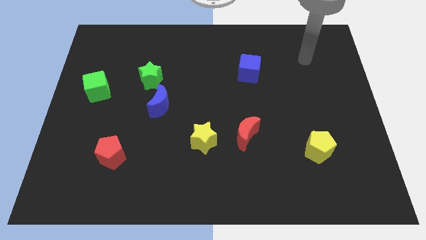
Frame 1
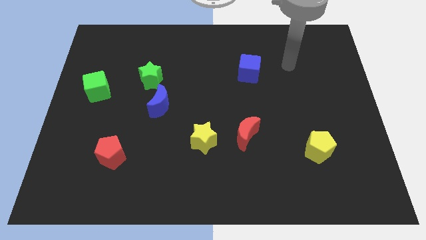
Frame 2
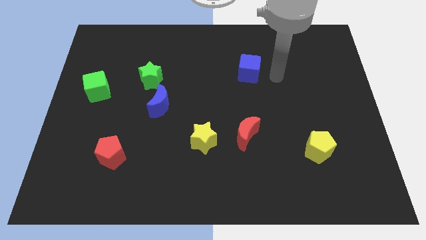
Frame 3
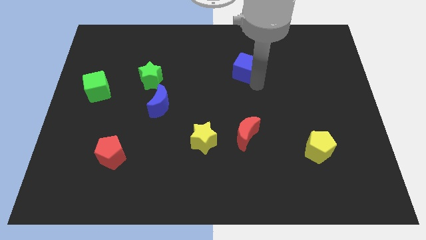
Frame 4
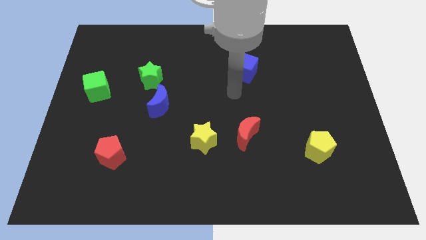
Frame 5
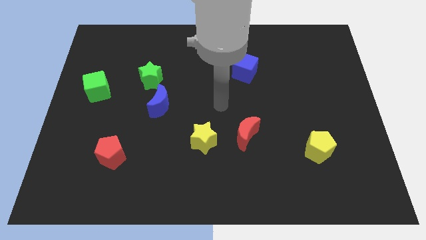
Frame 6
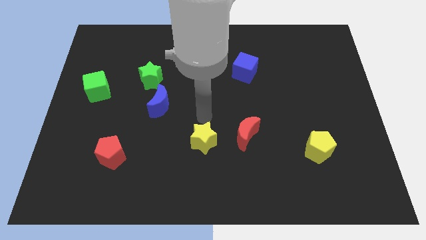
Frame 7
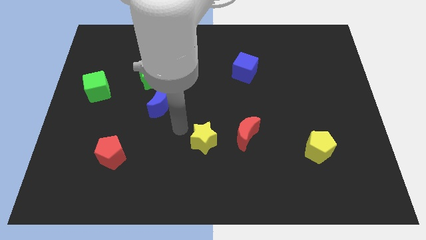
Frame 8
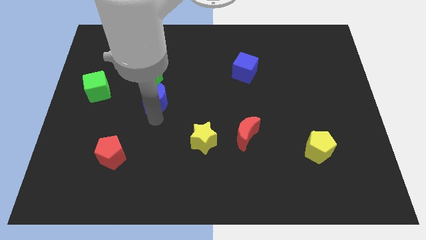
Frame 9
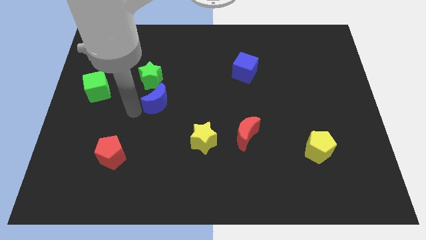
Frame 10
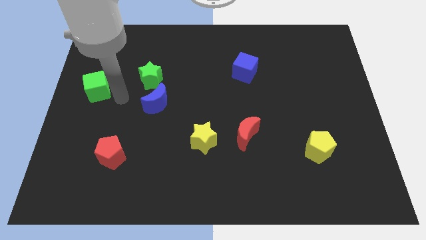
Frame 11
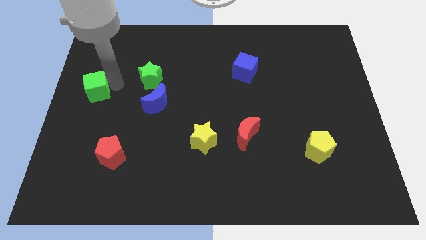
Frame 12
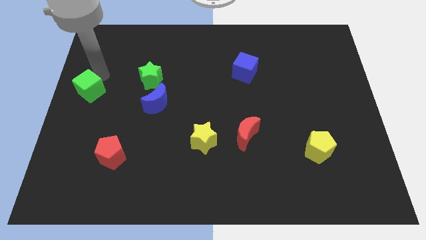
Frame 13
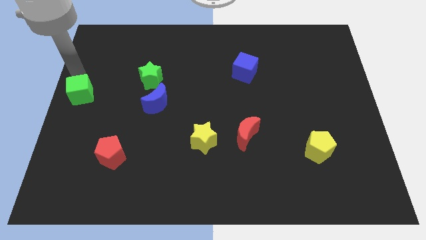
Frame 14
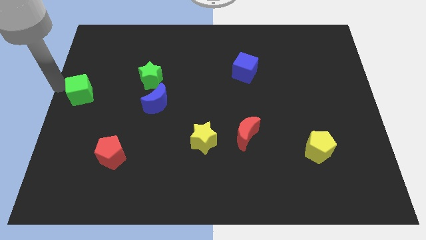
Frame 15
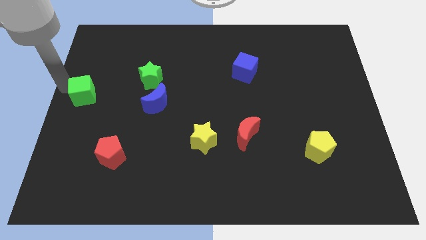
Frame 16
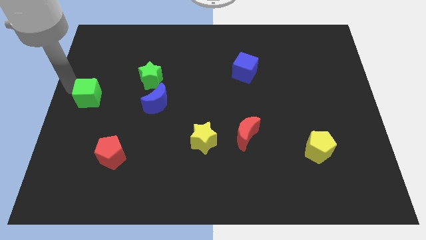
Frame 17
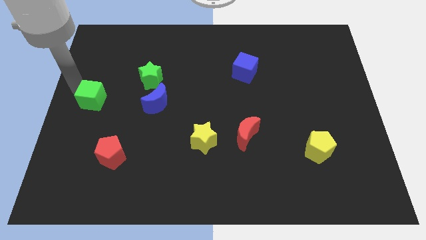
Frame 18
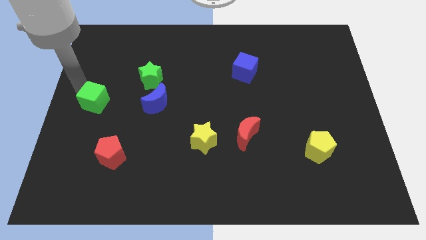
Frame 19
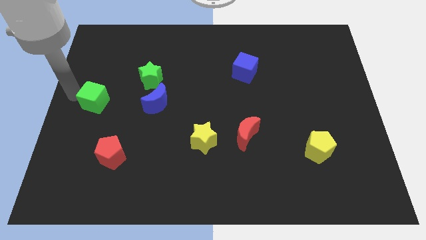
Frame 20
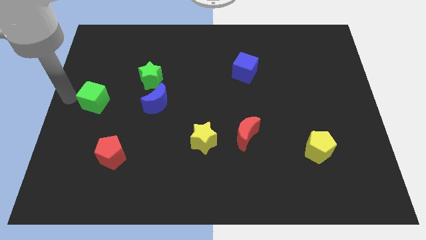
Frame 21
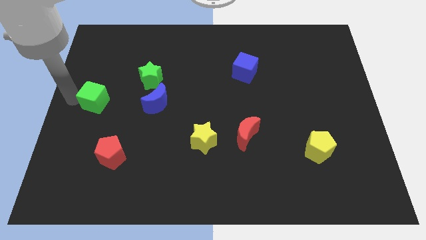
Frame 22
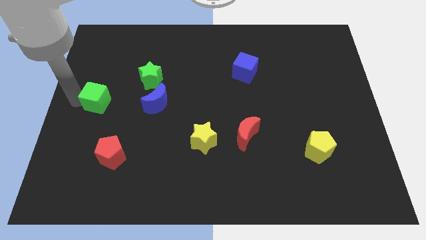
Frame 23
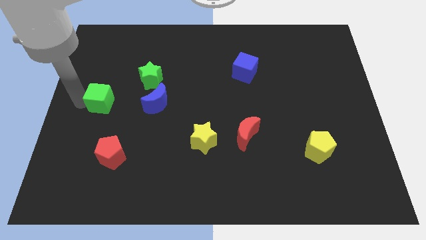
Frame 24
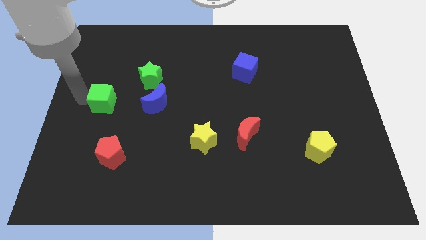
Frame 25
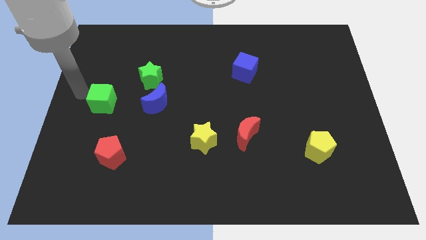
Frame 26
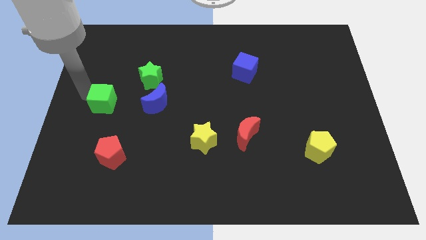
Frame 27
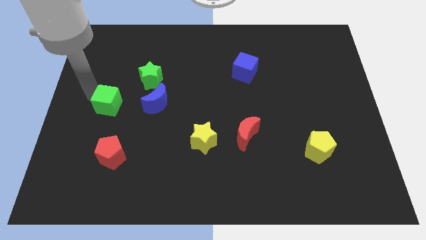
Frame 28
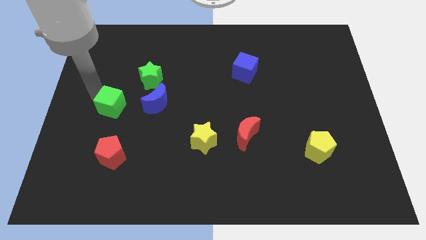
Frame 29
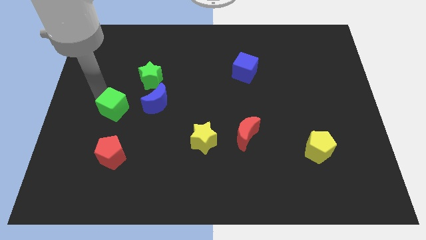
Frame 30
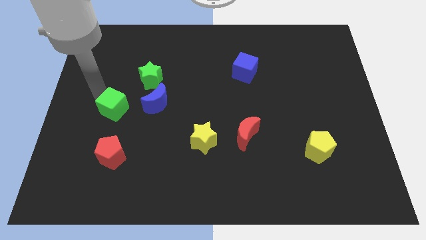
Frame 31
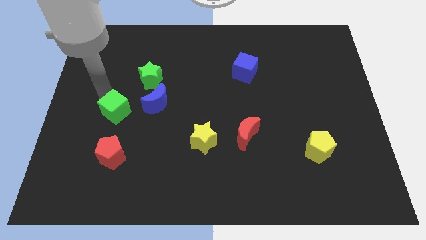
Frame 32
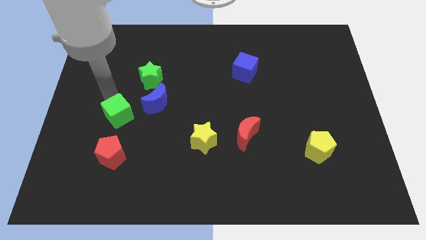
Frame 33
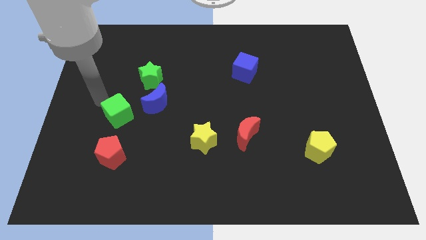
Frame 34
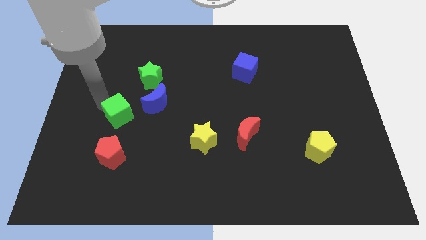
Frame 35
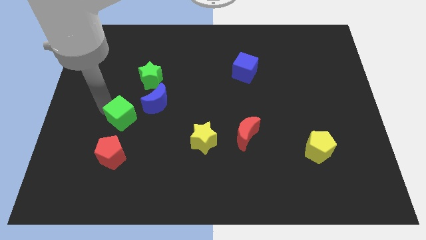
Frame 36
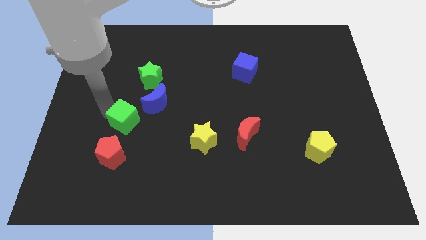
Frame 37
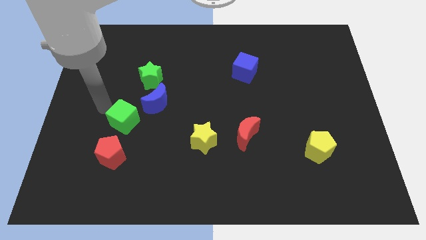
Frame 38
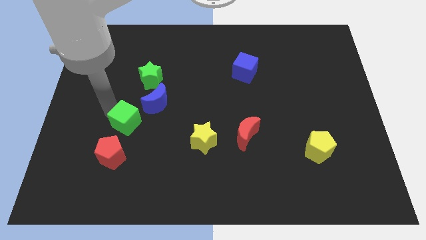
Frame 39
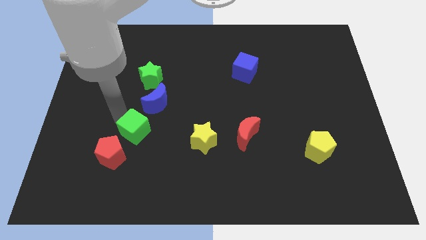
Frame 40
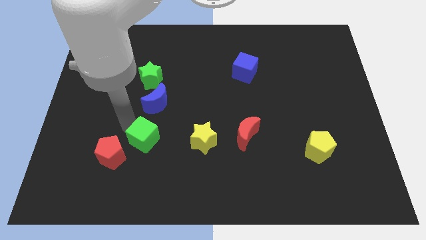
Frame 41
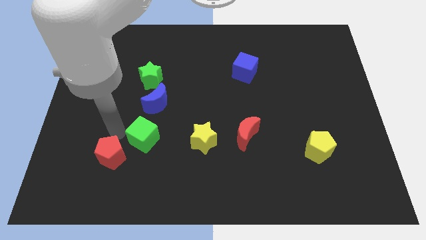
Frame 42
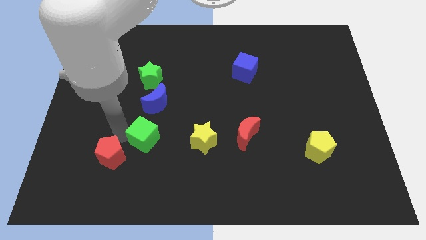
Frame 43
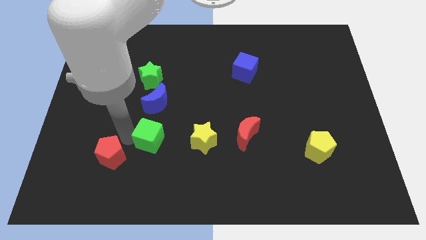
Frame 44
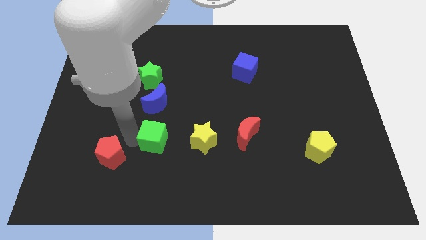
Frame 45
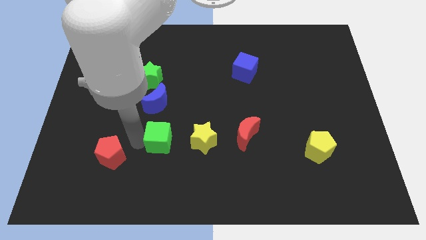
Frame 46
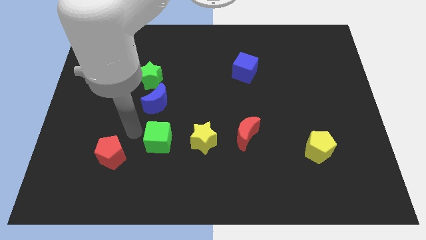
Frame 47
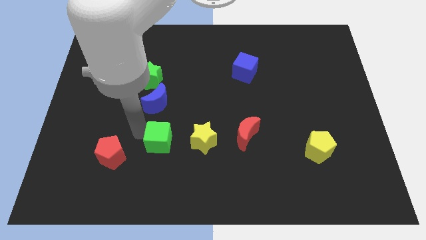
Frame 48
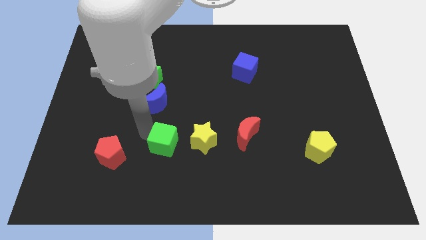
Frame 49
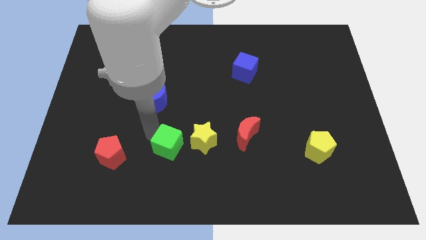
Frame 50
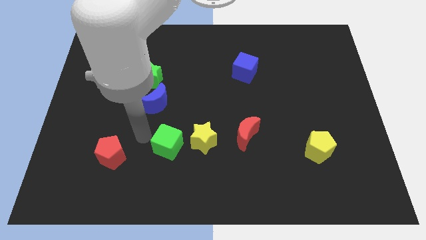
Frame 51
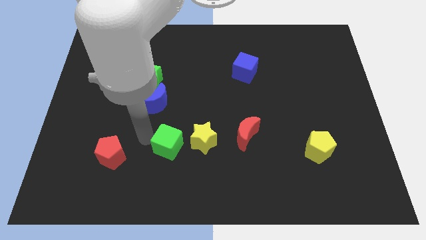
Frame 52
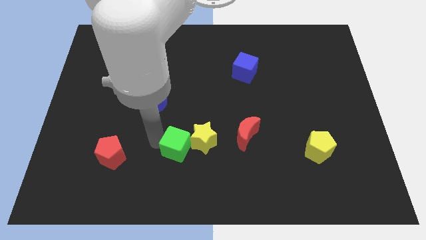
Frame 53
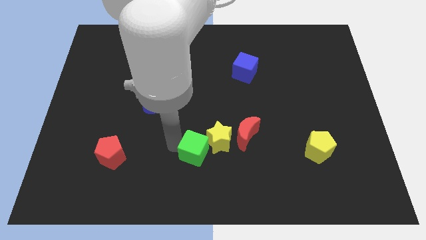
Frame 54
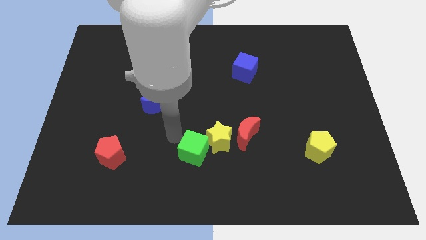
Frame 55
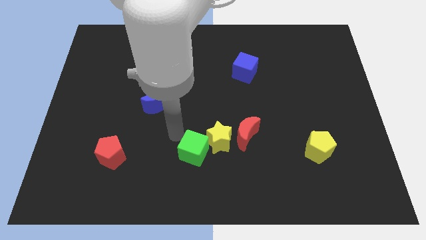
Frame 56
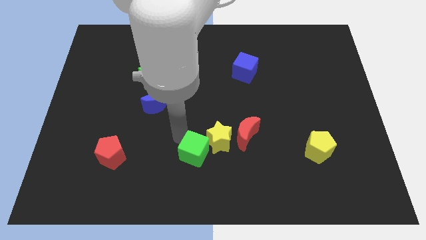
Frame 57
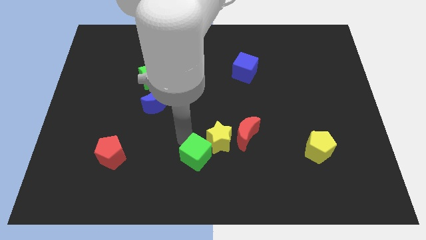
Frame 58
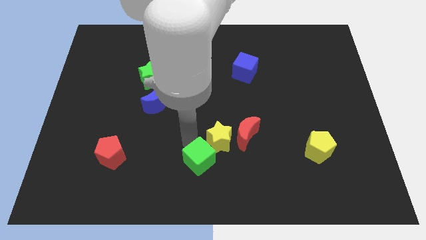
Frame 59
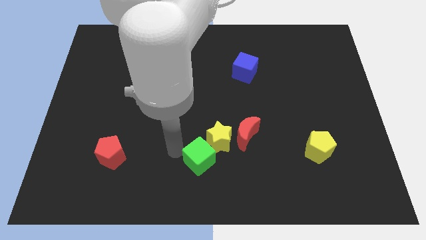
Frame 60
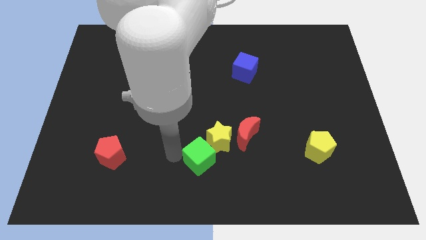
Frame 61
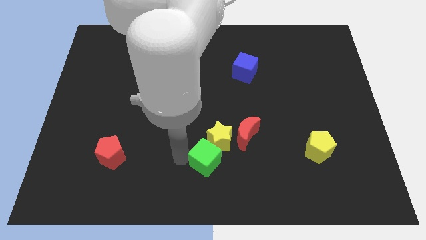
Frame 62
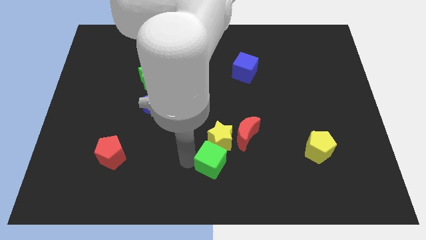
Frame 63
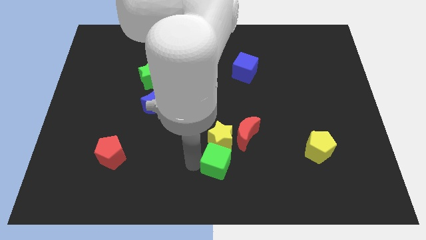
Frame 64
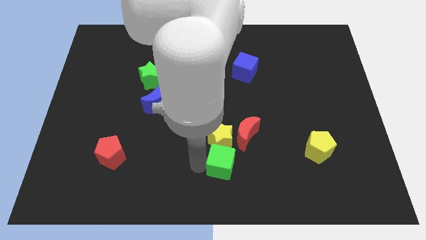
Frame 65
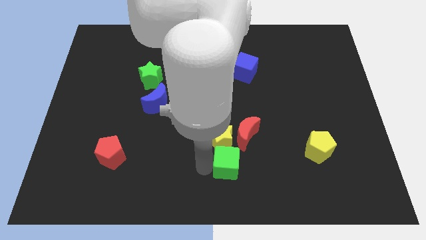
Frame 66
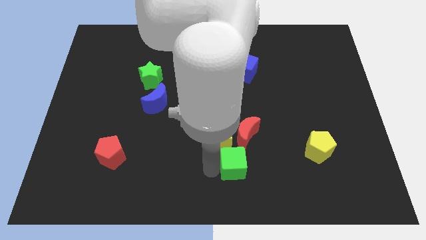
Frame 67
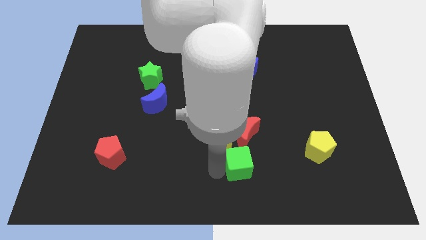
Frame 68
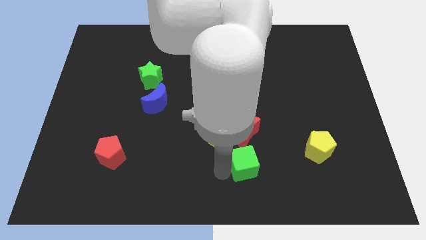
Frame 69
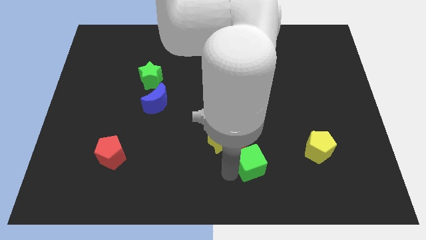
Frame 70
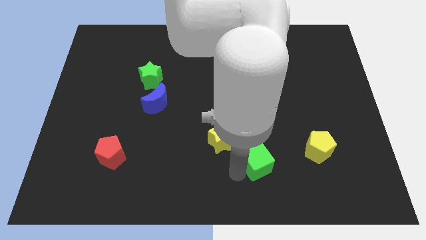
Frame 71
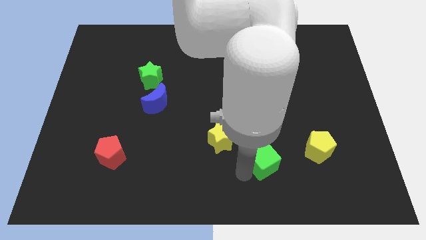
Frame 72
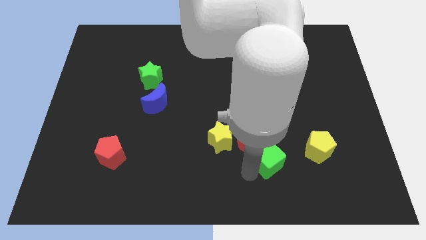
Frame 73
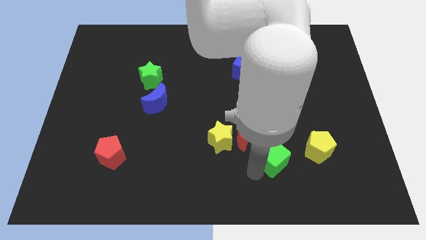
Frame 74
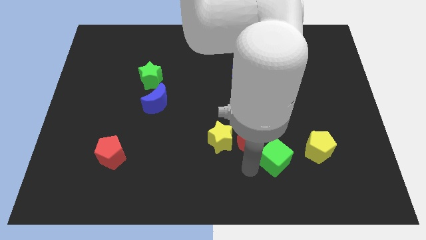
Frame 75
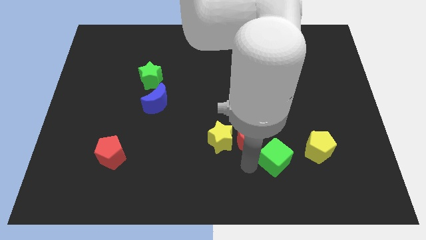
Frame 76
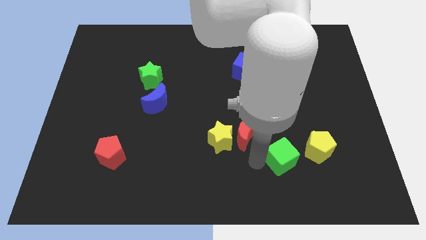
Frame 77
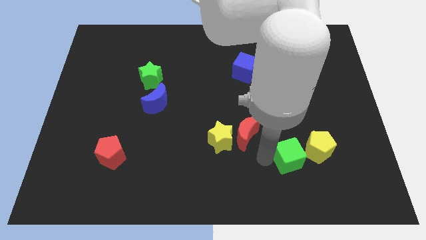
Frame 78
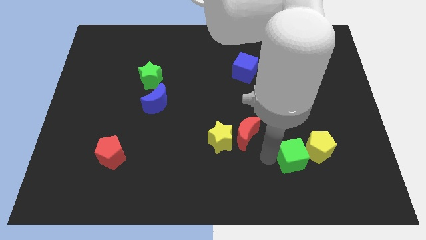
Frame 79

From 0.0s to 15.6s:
slide the green cube next to the yellow pentagon
